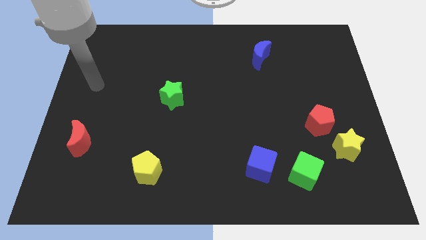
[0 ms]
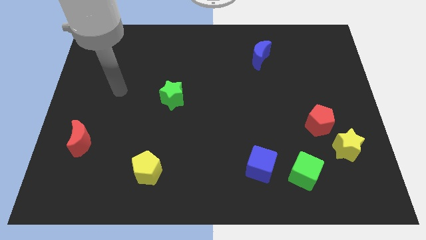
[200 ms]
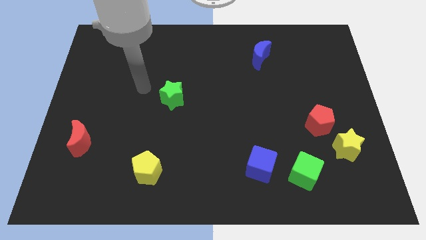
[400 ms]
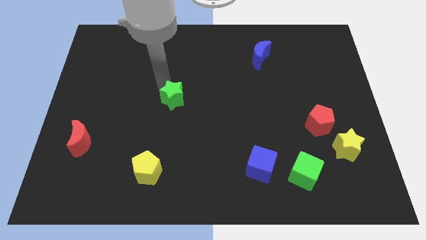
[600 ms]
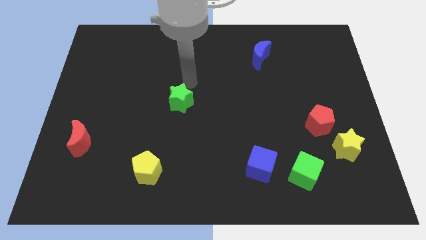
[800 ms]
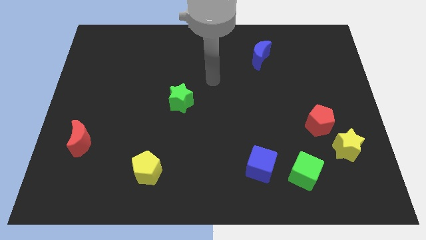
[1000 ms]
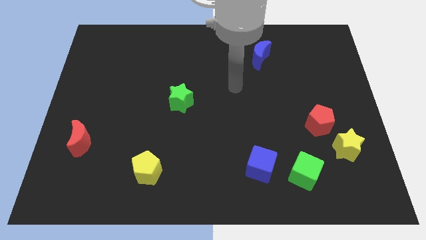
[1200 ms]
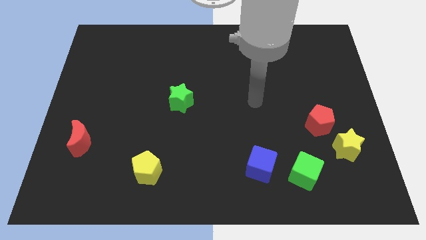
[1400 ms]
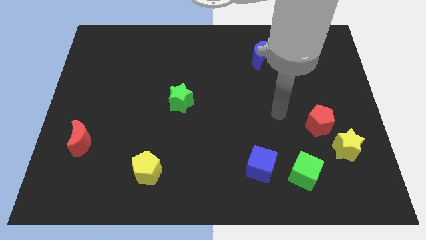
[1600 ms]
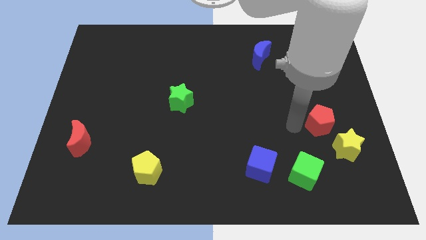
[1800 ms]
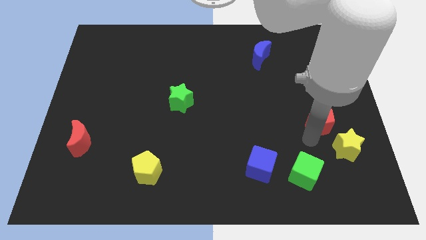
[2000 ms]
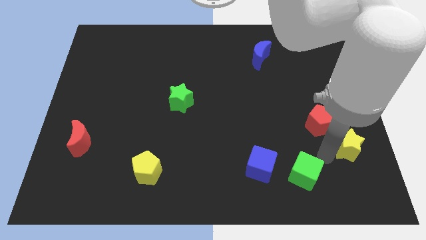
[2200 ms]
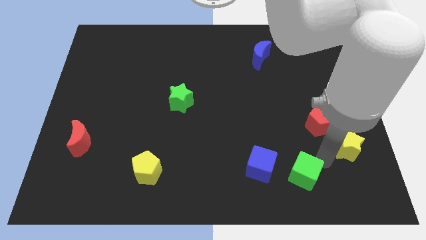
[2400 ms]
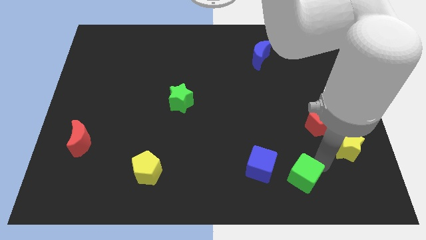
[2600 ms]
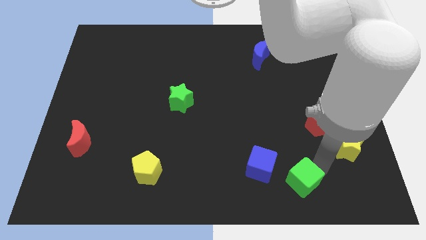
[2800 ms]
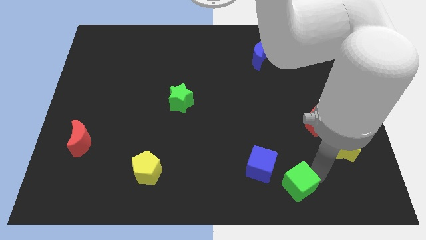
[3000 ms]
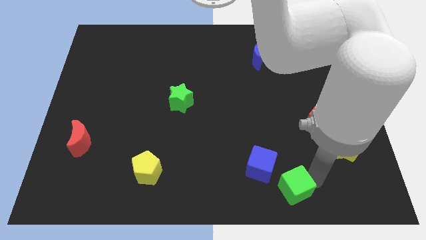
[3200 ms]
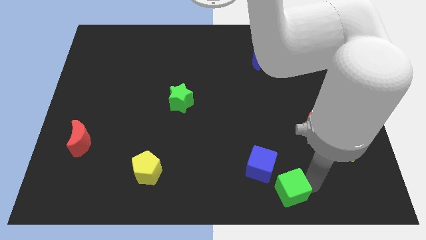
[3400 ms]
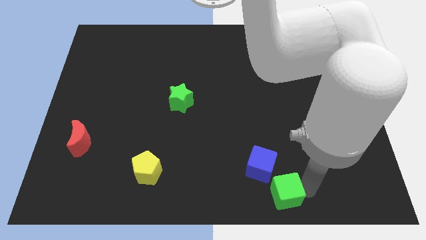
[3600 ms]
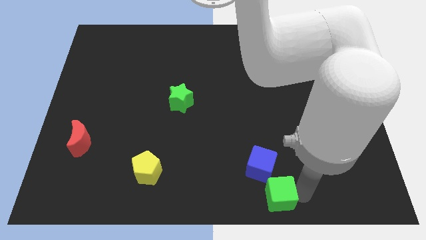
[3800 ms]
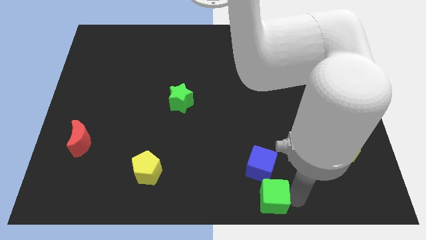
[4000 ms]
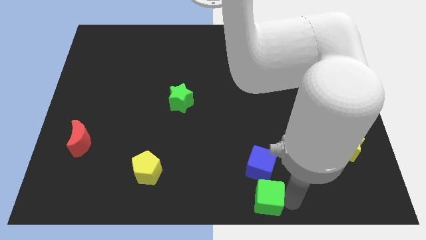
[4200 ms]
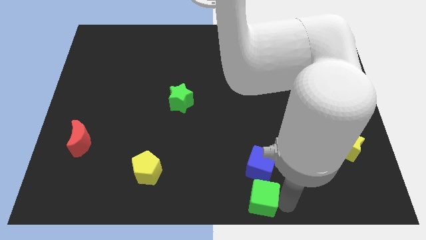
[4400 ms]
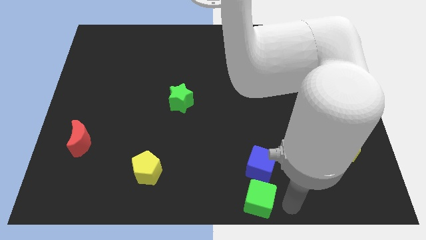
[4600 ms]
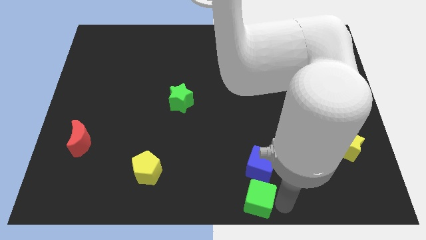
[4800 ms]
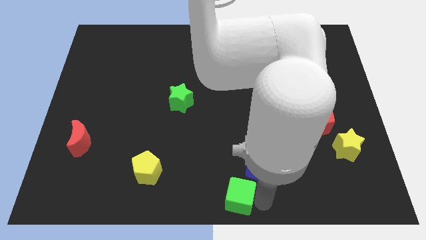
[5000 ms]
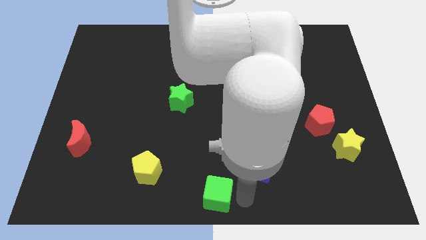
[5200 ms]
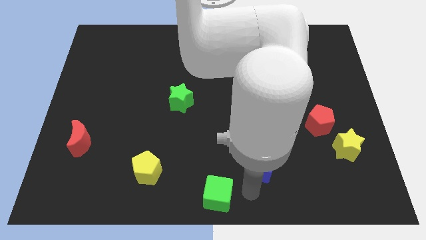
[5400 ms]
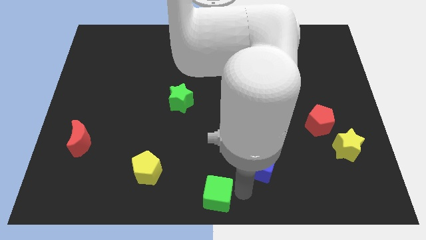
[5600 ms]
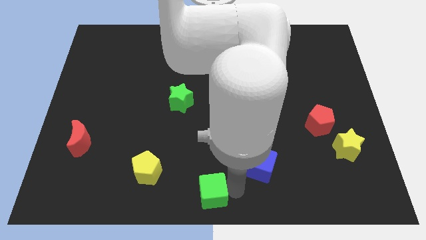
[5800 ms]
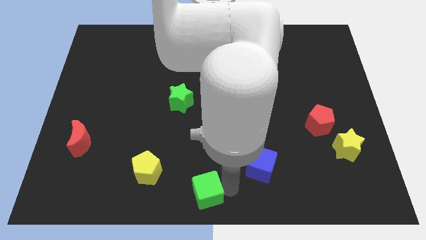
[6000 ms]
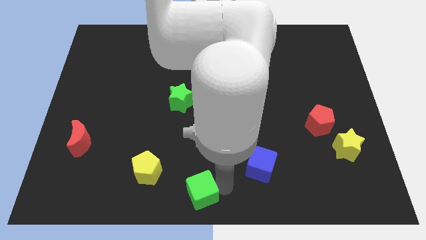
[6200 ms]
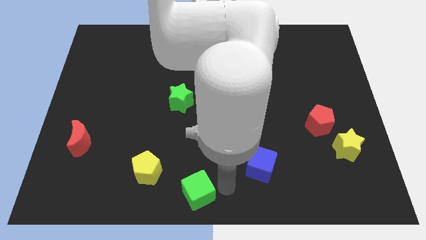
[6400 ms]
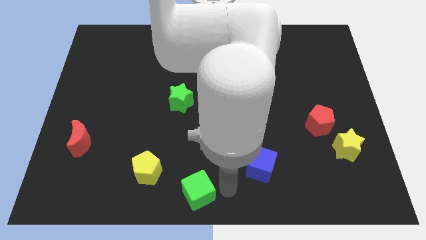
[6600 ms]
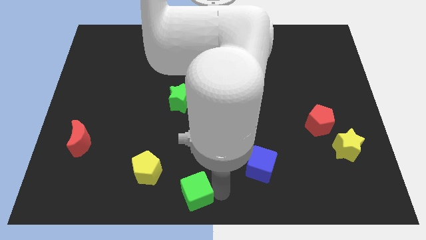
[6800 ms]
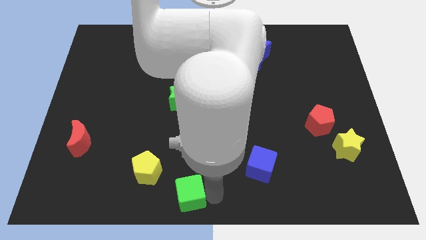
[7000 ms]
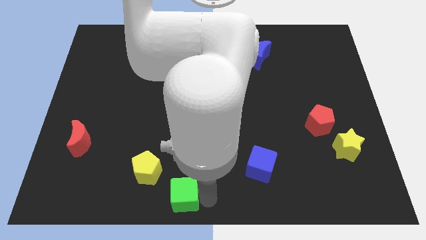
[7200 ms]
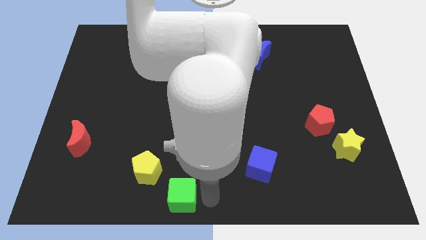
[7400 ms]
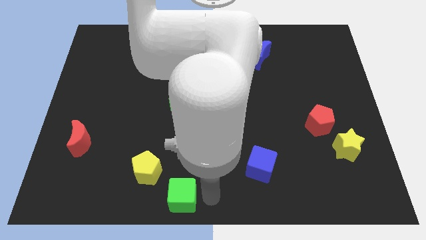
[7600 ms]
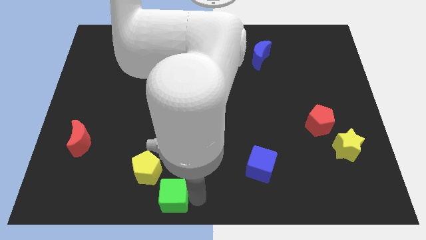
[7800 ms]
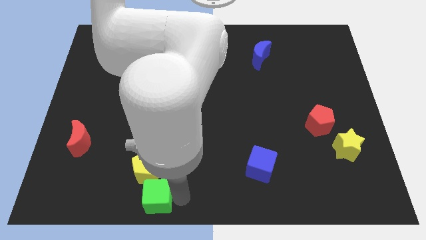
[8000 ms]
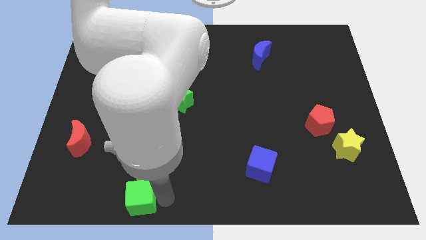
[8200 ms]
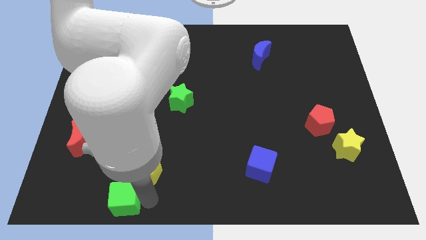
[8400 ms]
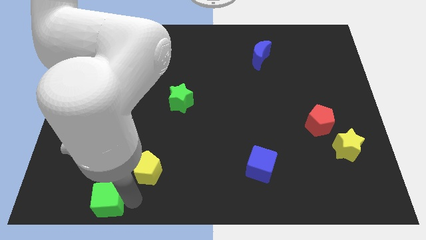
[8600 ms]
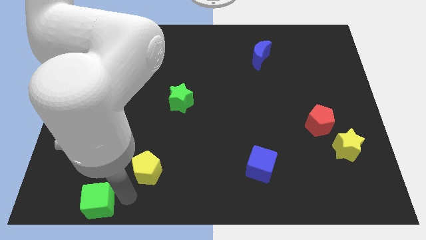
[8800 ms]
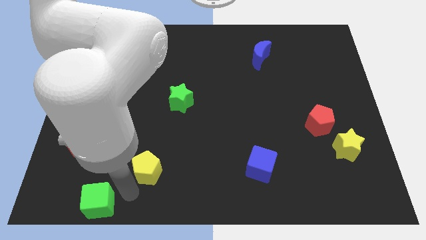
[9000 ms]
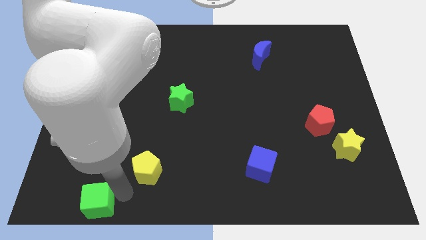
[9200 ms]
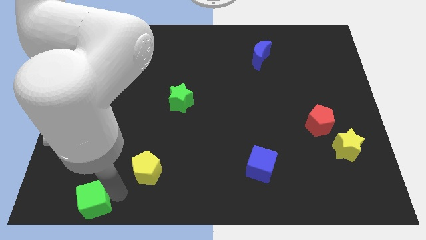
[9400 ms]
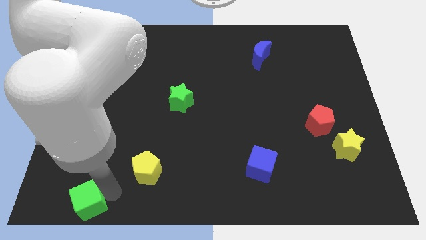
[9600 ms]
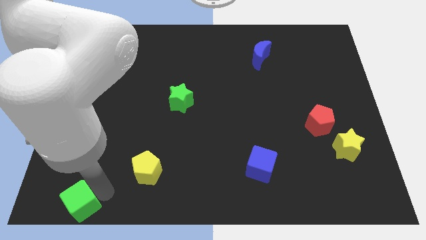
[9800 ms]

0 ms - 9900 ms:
move the green cube to the bottom left of the board

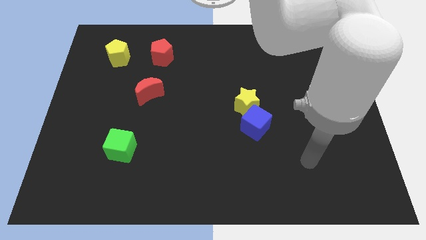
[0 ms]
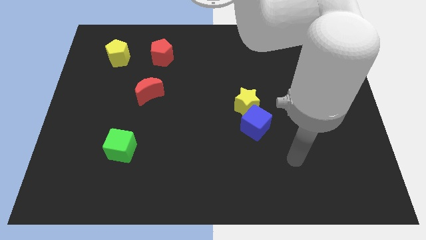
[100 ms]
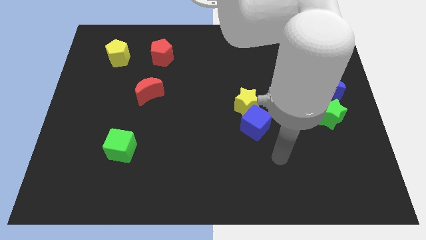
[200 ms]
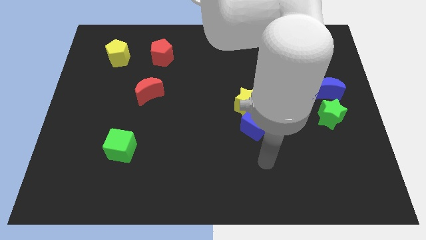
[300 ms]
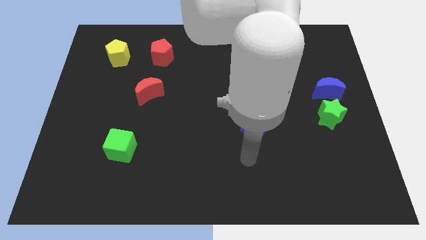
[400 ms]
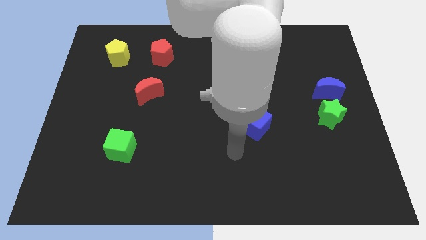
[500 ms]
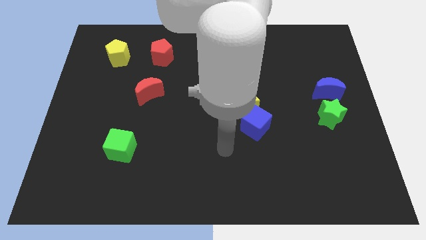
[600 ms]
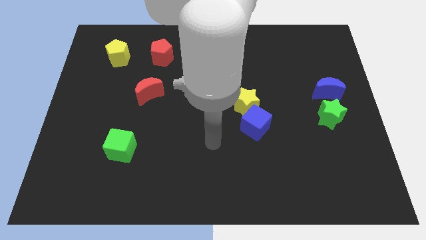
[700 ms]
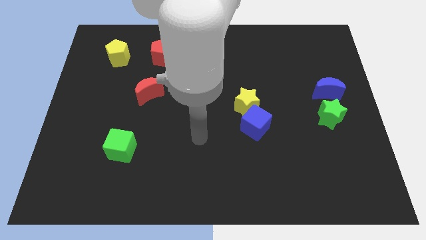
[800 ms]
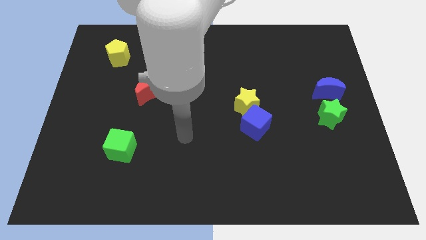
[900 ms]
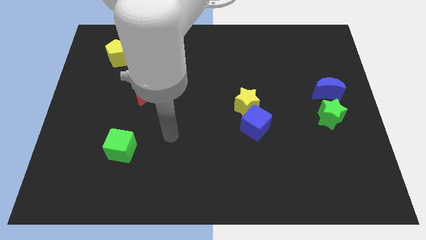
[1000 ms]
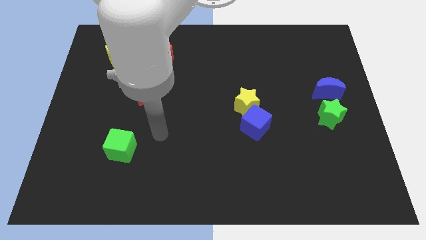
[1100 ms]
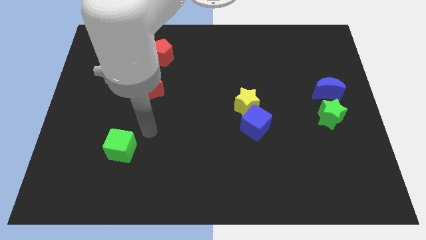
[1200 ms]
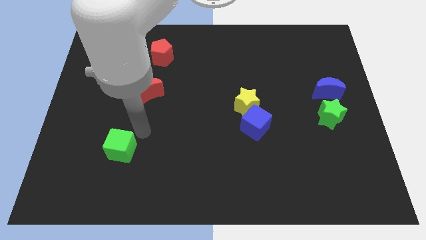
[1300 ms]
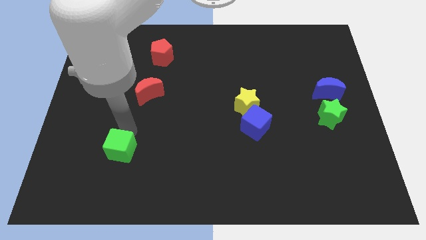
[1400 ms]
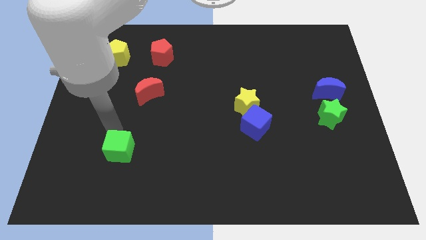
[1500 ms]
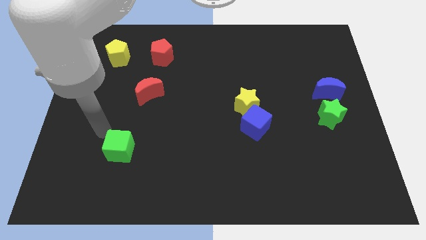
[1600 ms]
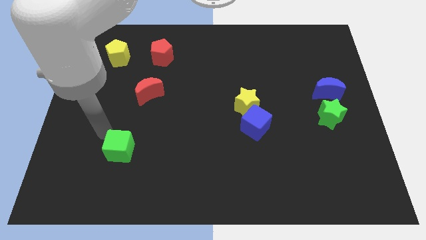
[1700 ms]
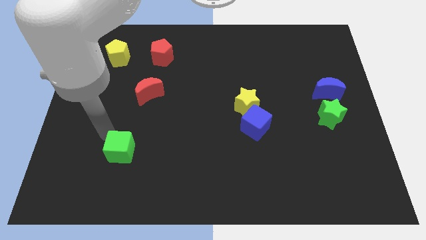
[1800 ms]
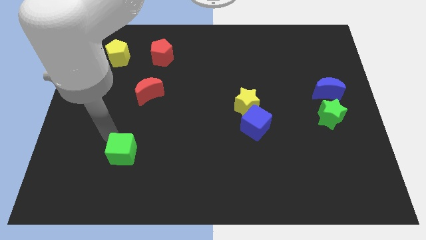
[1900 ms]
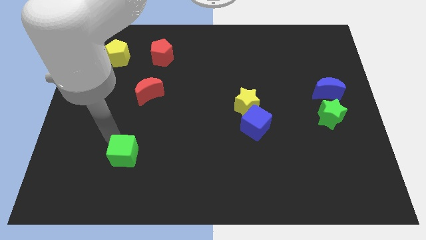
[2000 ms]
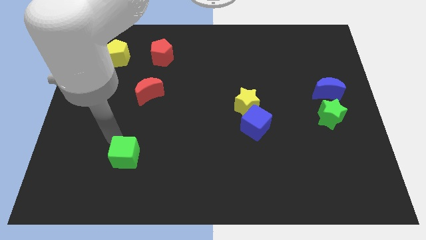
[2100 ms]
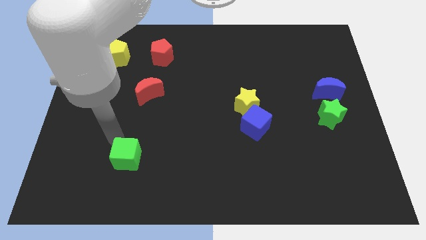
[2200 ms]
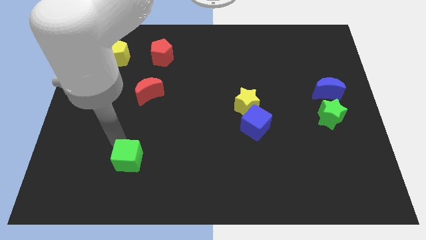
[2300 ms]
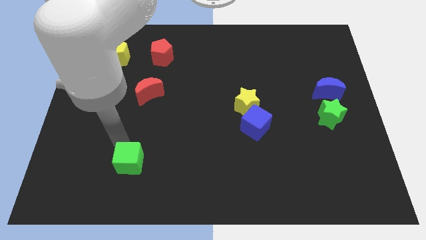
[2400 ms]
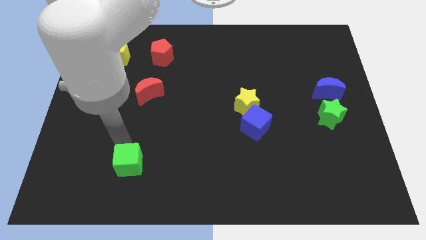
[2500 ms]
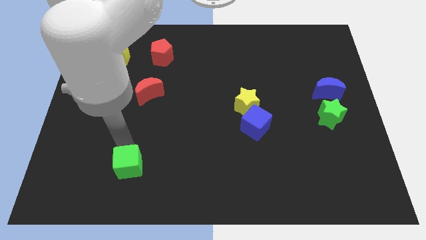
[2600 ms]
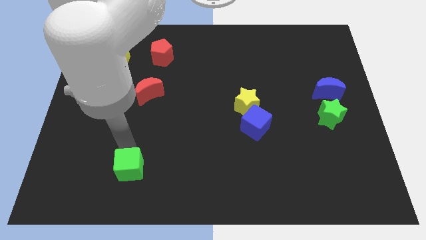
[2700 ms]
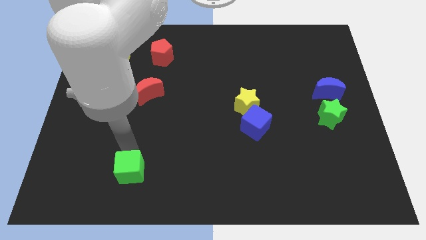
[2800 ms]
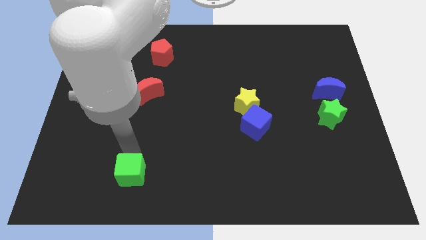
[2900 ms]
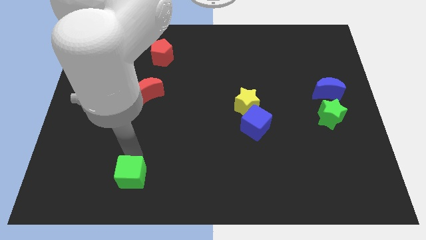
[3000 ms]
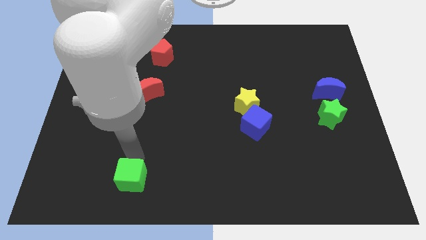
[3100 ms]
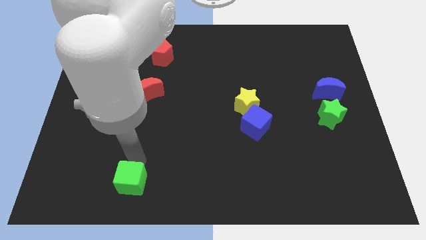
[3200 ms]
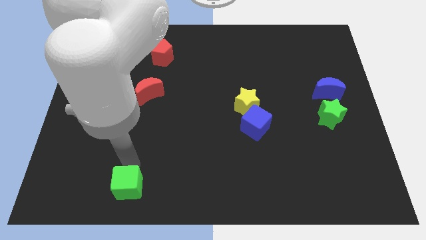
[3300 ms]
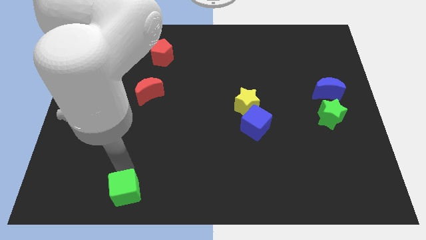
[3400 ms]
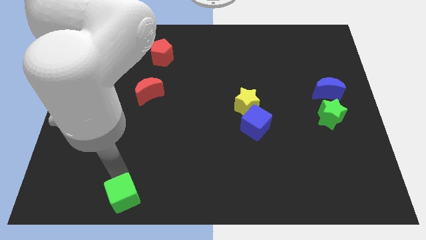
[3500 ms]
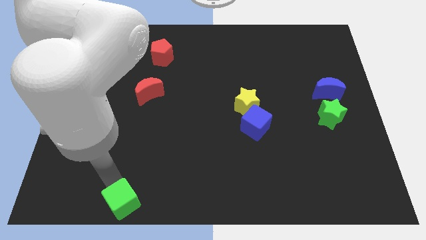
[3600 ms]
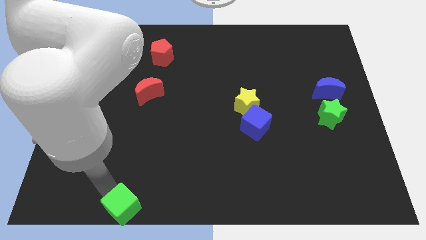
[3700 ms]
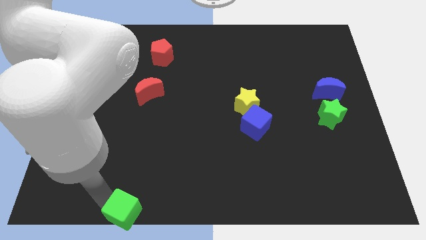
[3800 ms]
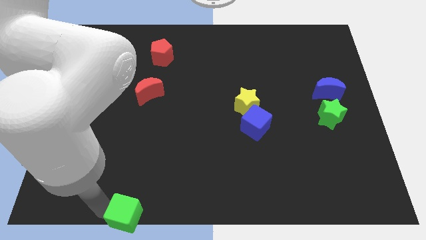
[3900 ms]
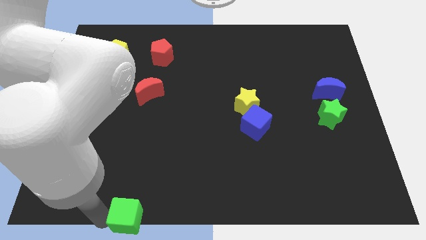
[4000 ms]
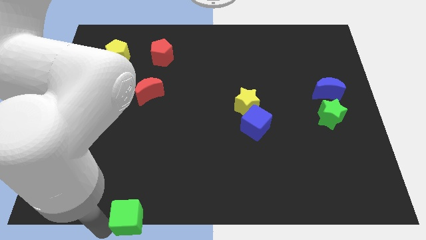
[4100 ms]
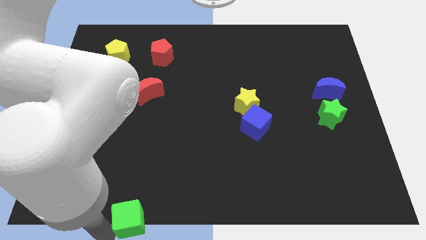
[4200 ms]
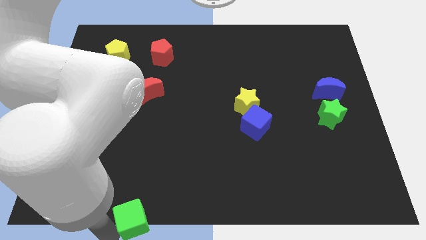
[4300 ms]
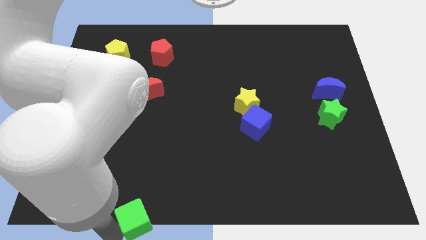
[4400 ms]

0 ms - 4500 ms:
slide the green cube to the bottom side
